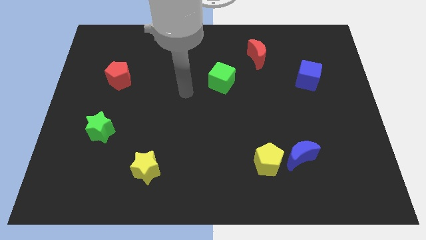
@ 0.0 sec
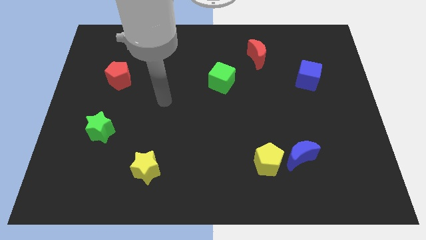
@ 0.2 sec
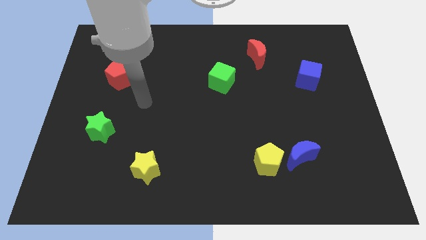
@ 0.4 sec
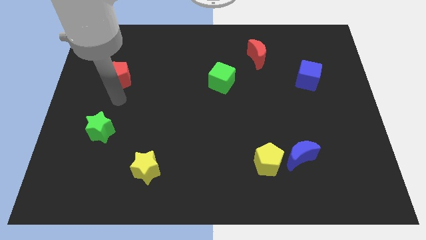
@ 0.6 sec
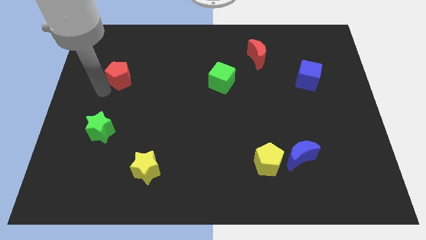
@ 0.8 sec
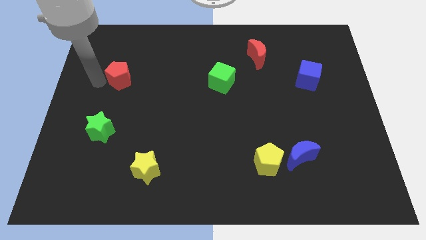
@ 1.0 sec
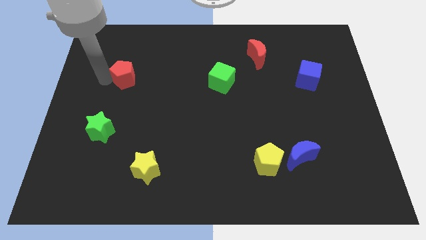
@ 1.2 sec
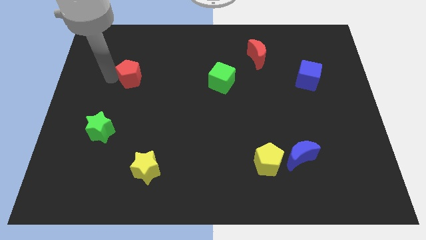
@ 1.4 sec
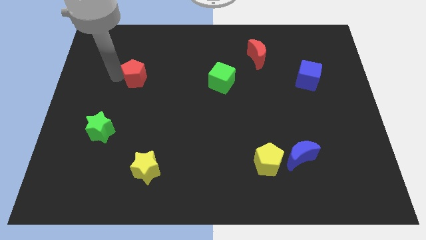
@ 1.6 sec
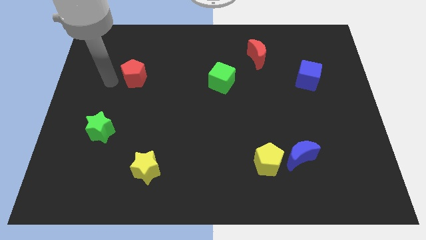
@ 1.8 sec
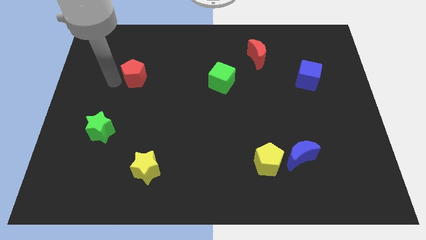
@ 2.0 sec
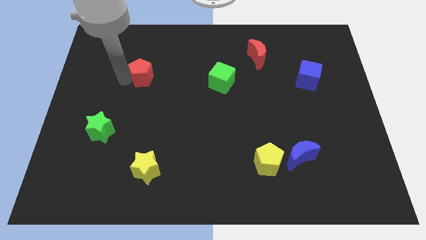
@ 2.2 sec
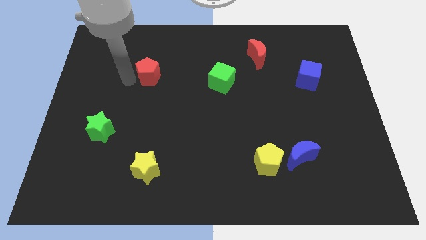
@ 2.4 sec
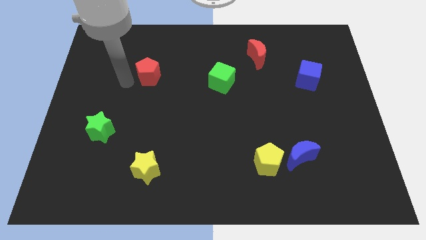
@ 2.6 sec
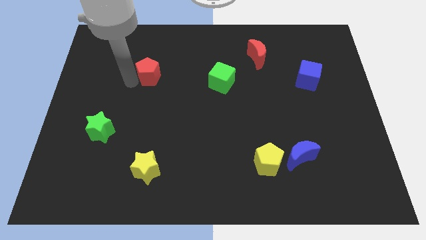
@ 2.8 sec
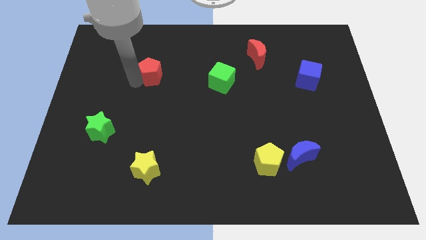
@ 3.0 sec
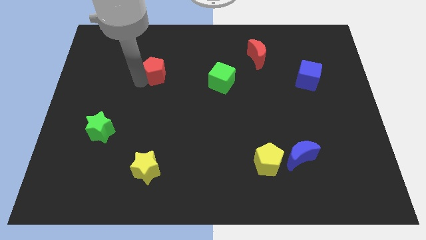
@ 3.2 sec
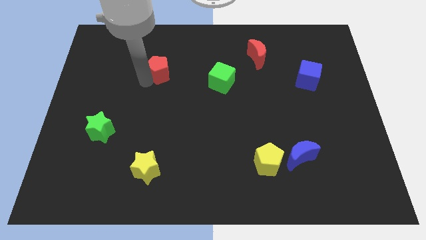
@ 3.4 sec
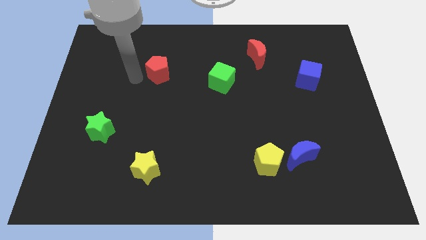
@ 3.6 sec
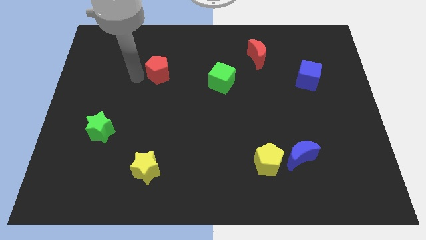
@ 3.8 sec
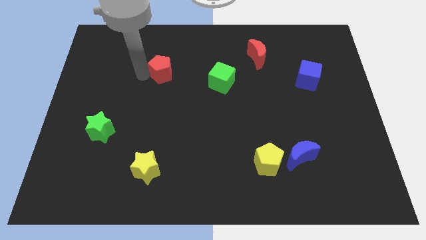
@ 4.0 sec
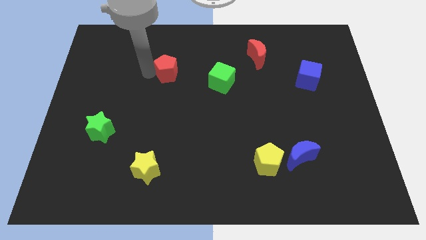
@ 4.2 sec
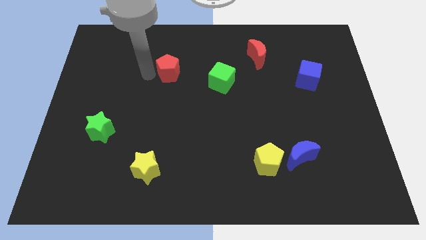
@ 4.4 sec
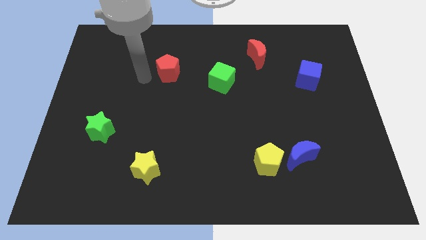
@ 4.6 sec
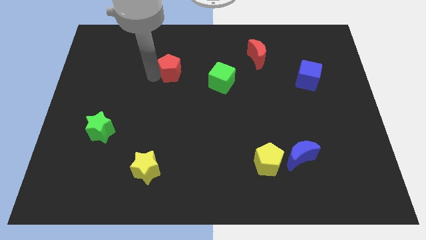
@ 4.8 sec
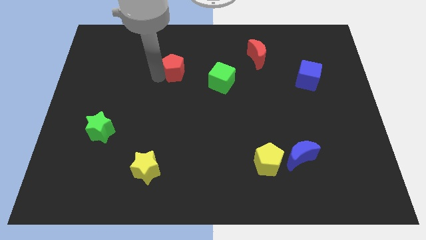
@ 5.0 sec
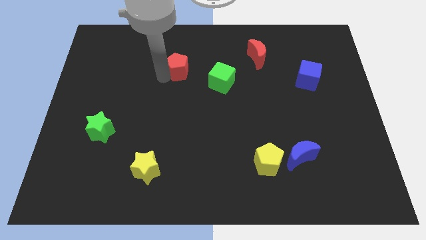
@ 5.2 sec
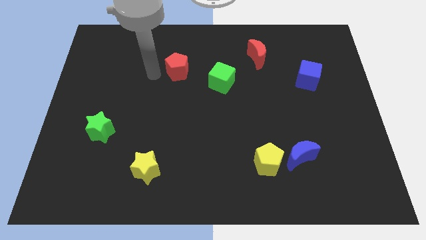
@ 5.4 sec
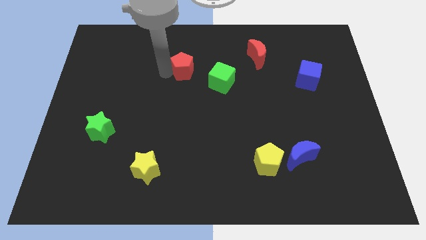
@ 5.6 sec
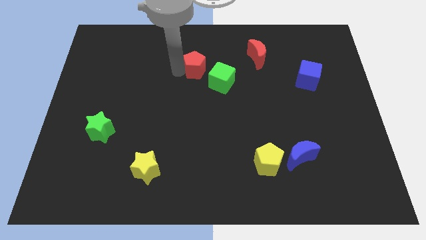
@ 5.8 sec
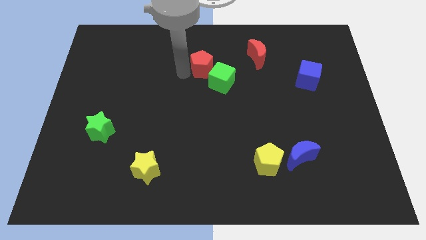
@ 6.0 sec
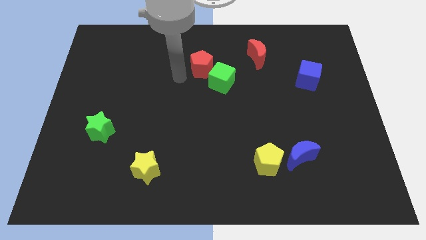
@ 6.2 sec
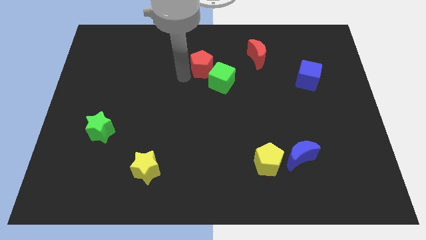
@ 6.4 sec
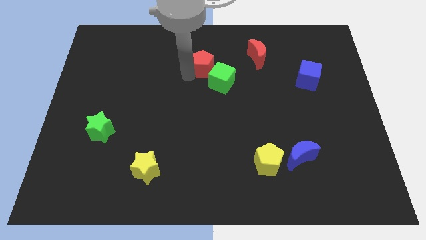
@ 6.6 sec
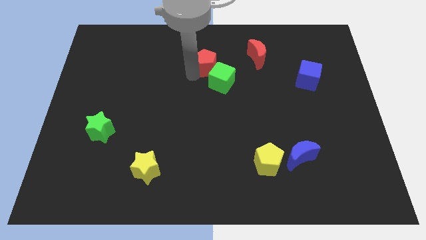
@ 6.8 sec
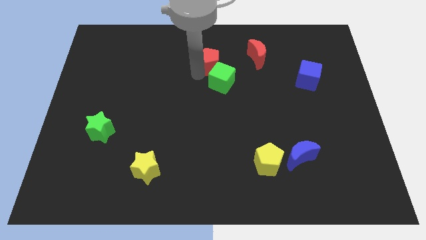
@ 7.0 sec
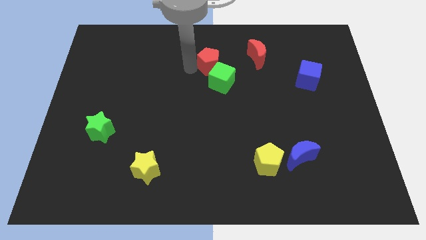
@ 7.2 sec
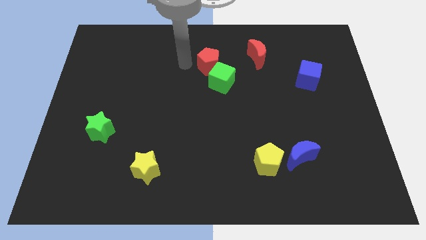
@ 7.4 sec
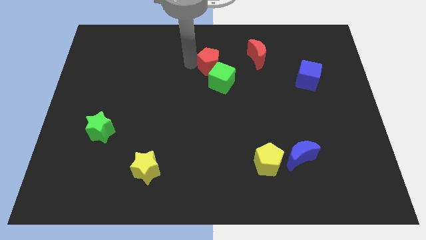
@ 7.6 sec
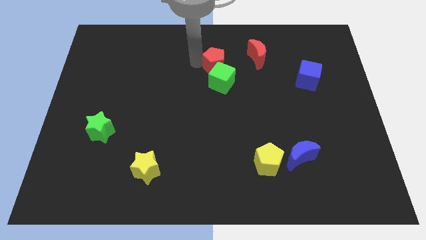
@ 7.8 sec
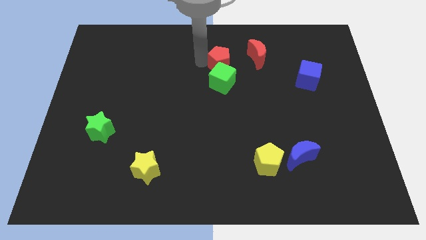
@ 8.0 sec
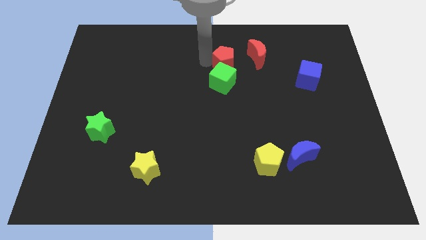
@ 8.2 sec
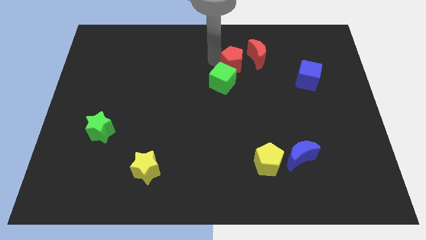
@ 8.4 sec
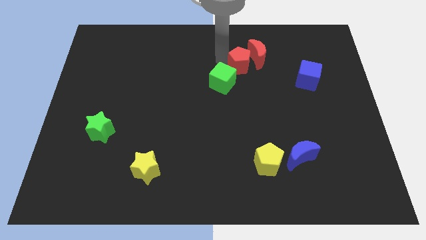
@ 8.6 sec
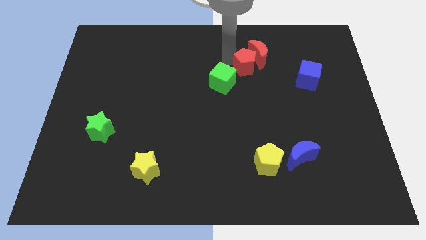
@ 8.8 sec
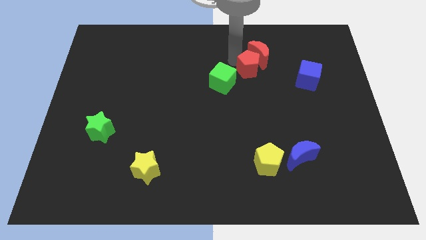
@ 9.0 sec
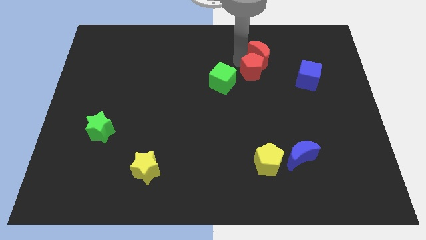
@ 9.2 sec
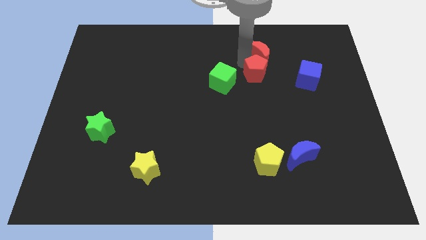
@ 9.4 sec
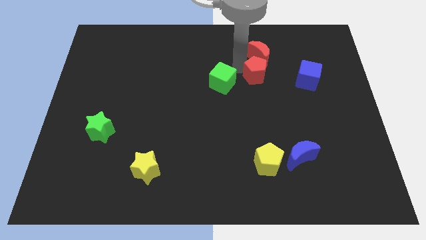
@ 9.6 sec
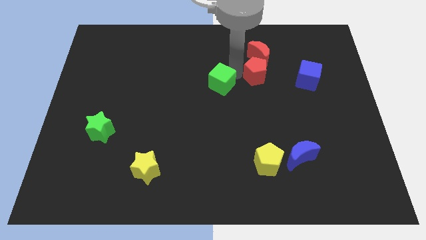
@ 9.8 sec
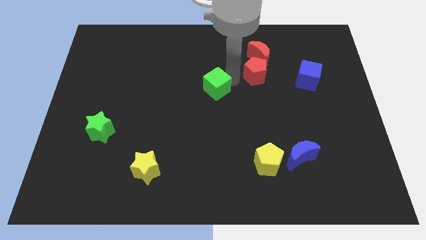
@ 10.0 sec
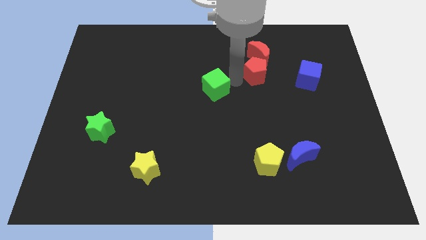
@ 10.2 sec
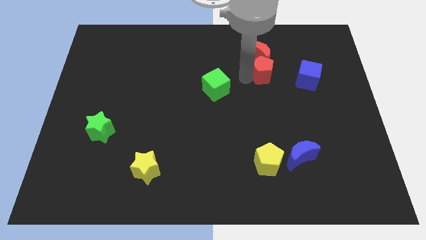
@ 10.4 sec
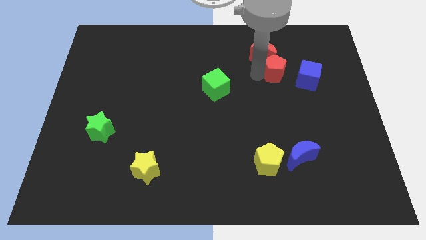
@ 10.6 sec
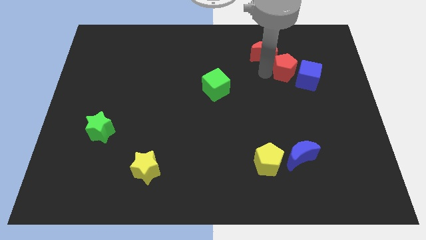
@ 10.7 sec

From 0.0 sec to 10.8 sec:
push the red pentagon close to the blue cube
